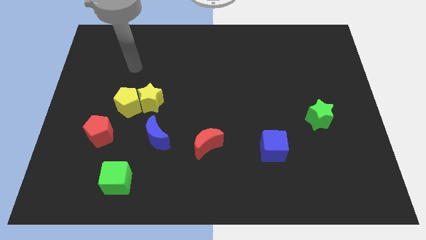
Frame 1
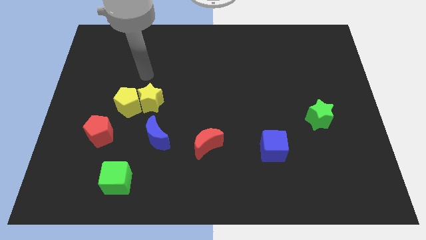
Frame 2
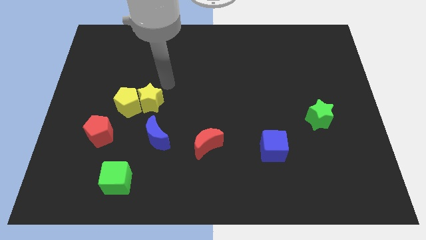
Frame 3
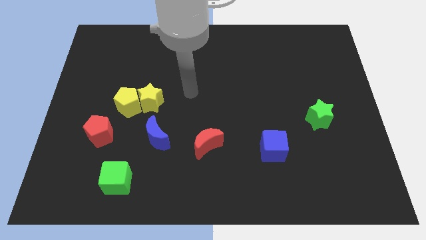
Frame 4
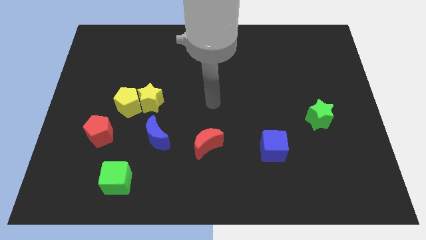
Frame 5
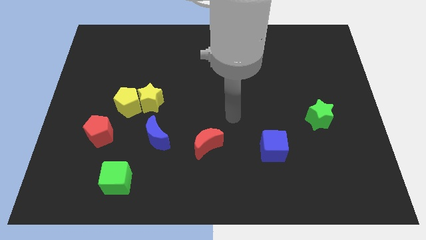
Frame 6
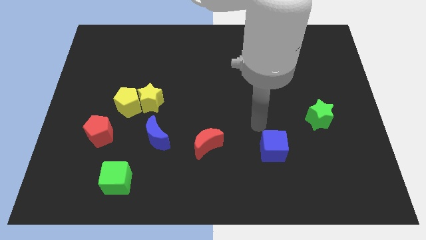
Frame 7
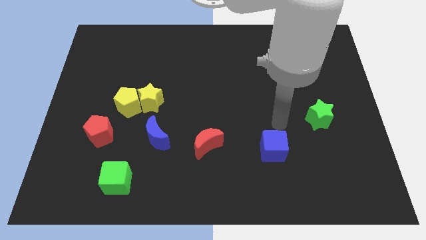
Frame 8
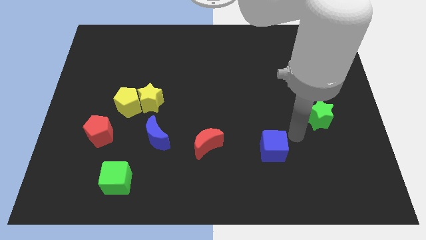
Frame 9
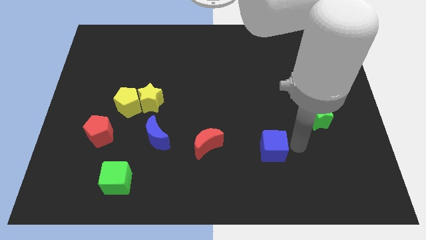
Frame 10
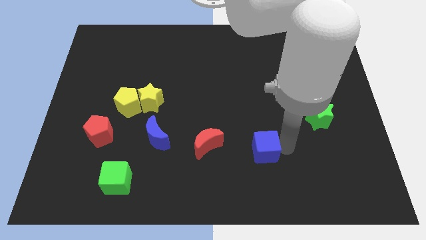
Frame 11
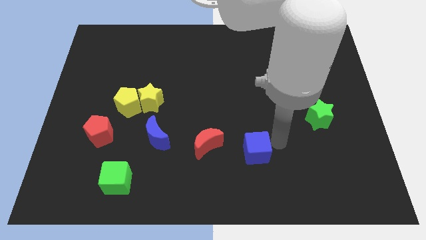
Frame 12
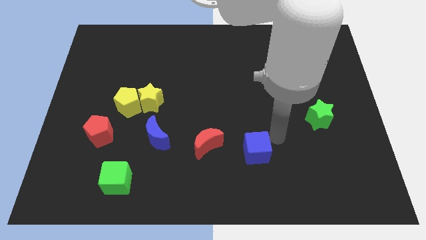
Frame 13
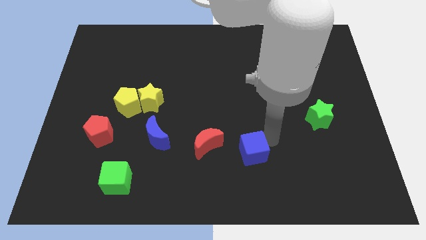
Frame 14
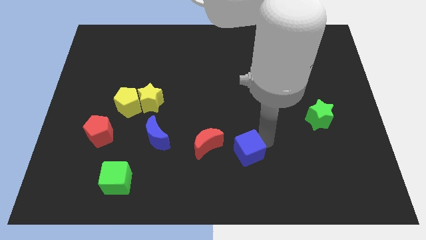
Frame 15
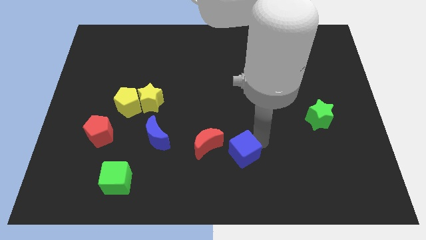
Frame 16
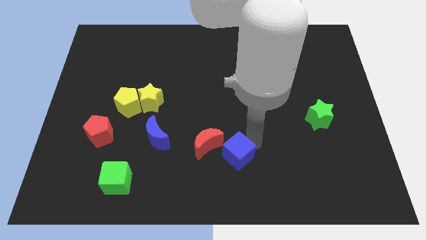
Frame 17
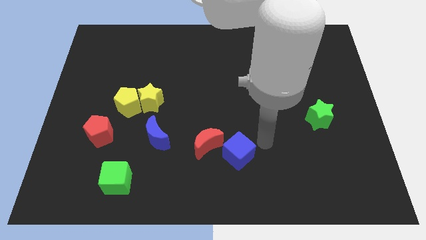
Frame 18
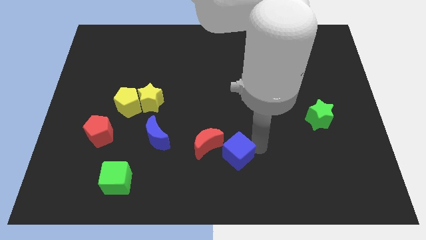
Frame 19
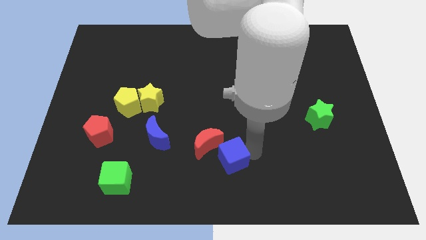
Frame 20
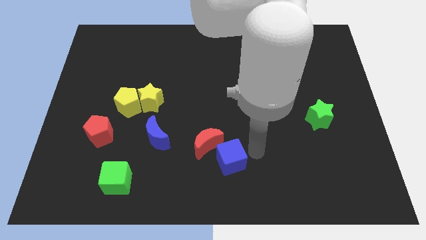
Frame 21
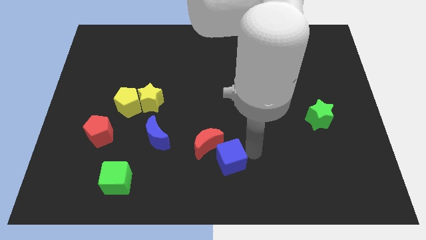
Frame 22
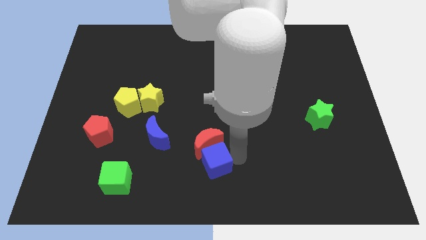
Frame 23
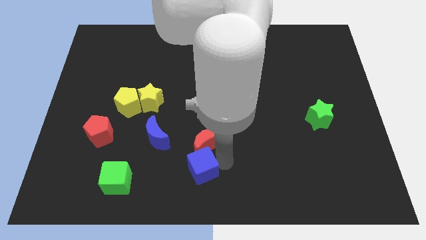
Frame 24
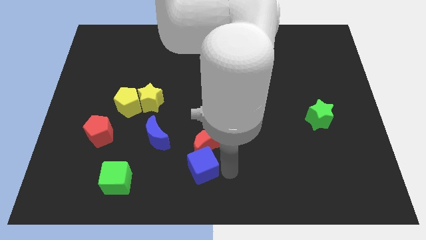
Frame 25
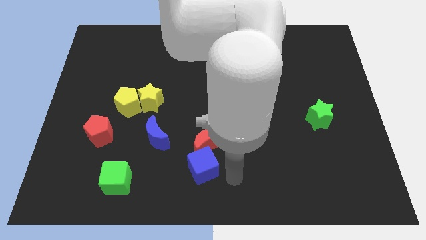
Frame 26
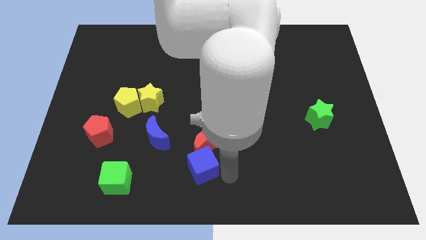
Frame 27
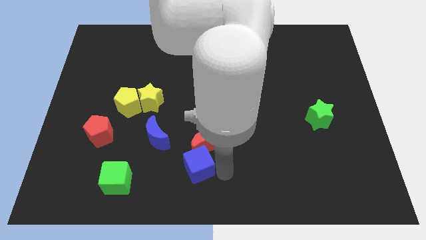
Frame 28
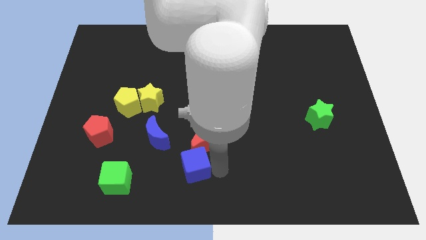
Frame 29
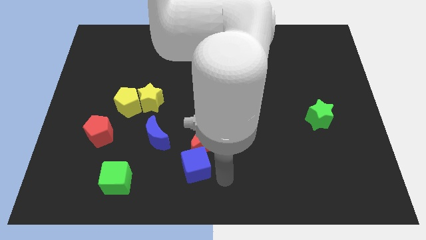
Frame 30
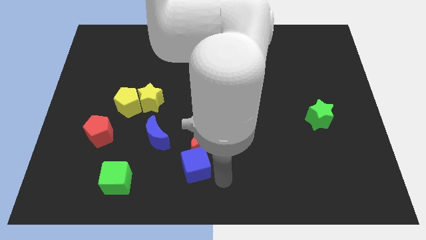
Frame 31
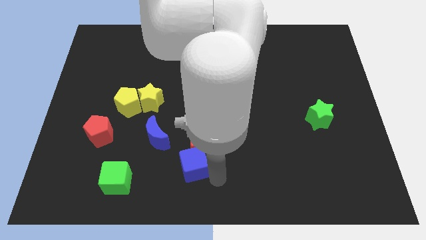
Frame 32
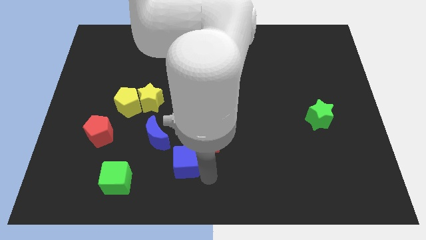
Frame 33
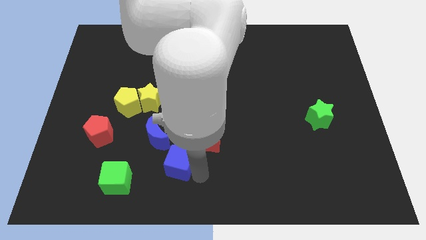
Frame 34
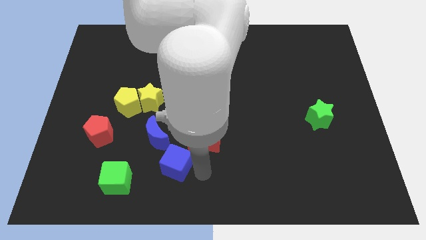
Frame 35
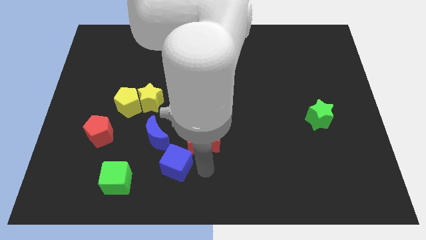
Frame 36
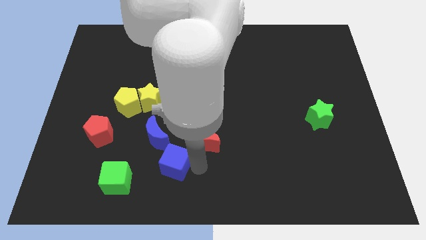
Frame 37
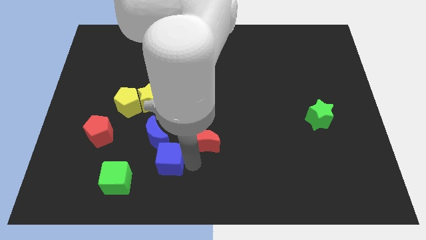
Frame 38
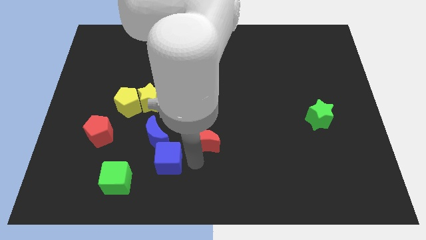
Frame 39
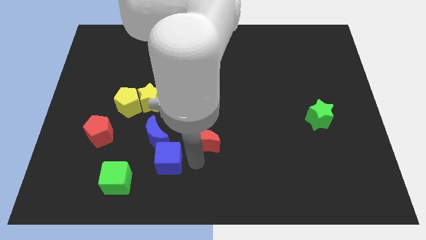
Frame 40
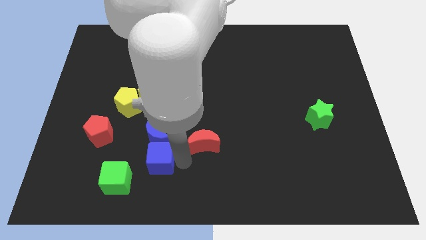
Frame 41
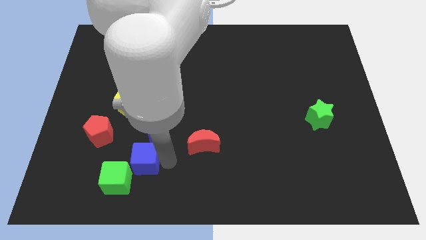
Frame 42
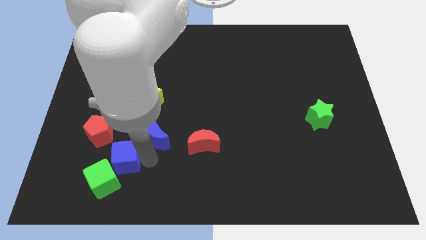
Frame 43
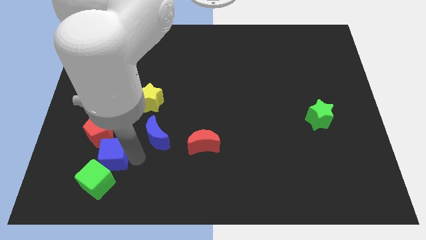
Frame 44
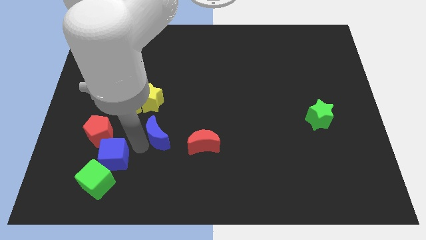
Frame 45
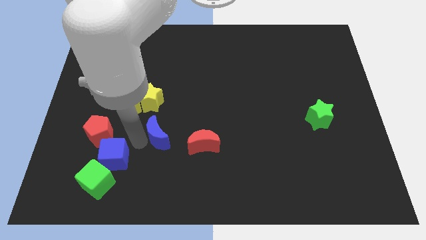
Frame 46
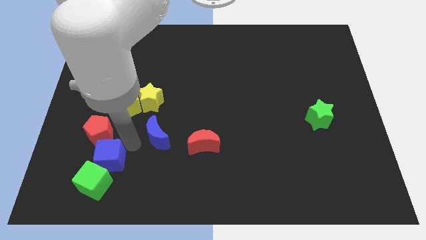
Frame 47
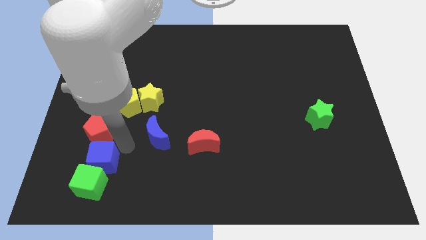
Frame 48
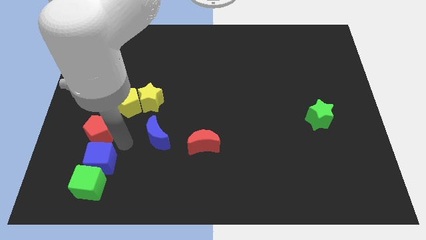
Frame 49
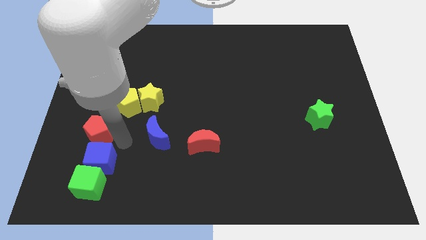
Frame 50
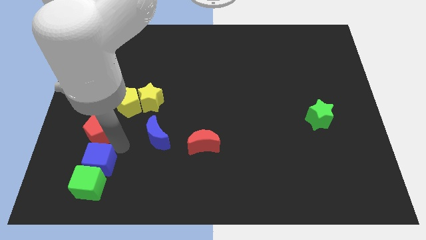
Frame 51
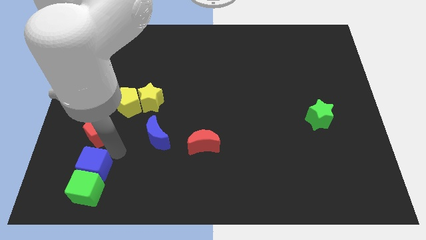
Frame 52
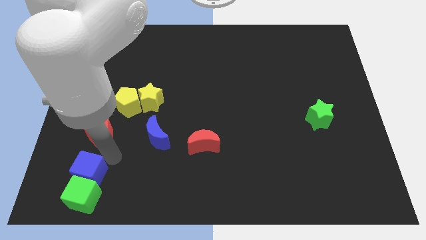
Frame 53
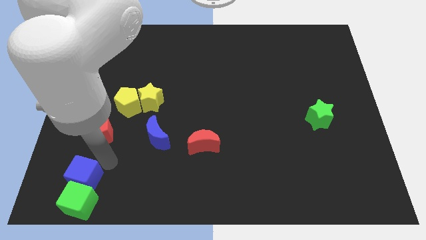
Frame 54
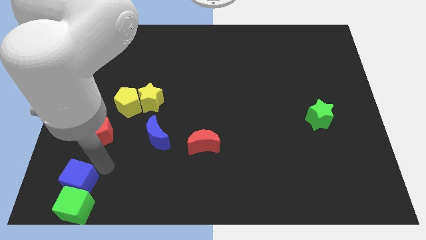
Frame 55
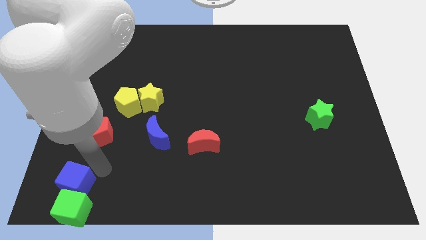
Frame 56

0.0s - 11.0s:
slide the blue cube to the bottom left

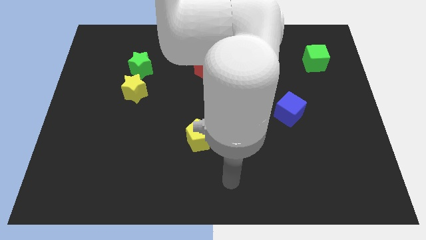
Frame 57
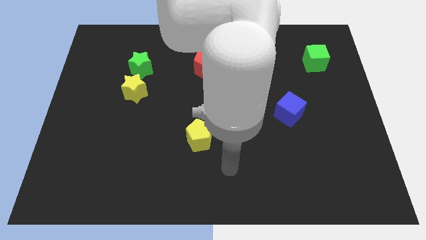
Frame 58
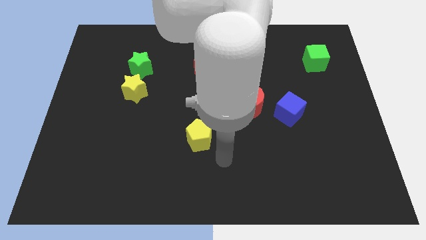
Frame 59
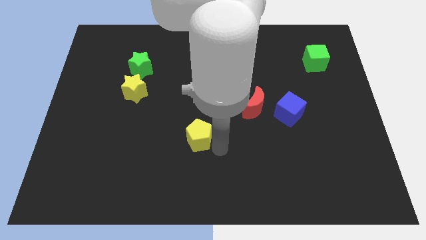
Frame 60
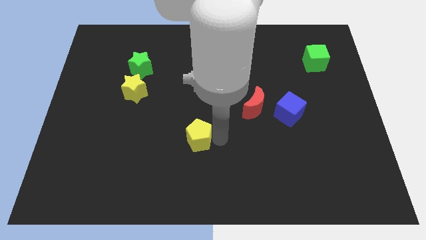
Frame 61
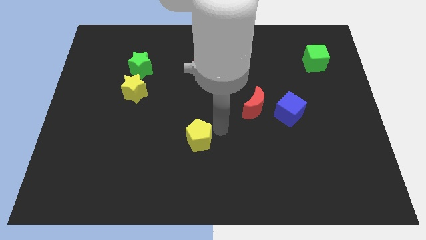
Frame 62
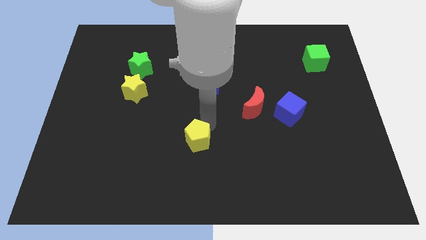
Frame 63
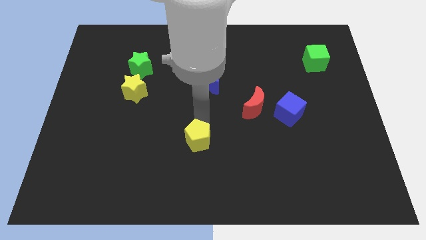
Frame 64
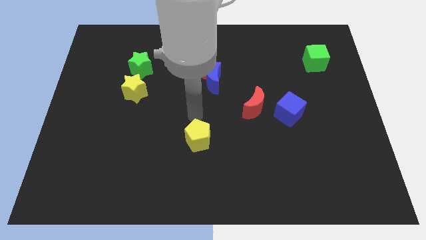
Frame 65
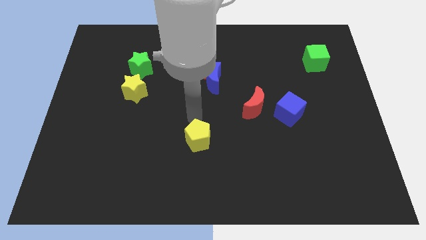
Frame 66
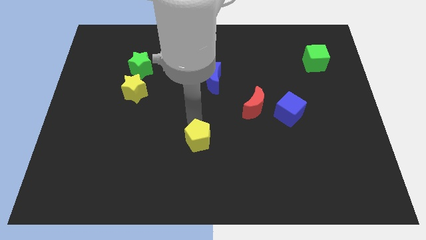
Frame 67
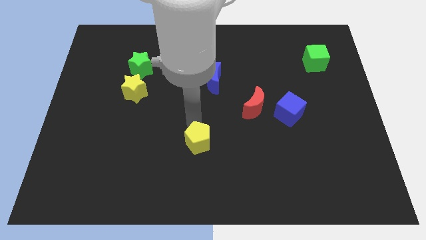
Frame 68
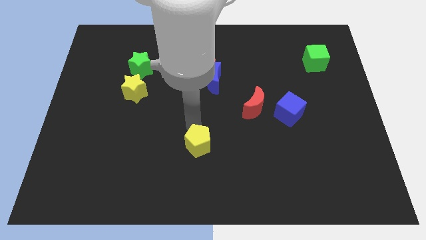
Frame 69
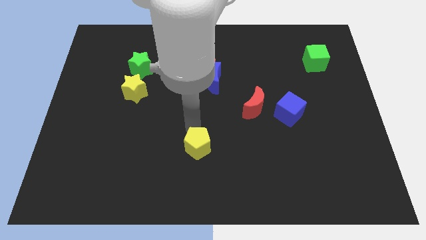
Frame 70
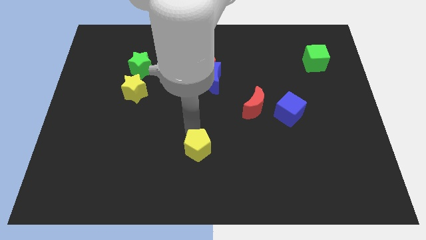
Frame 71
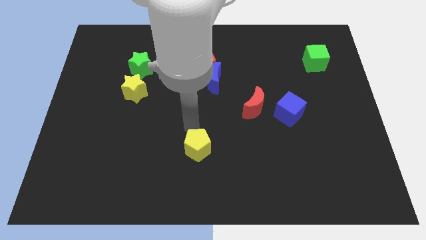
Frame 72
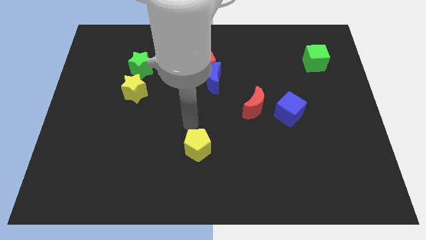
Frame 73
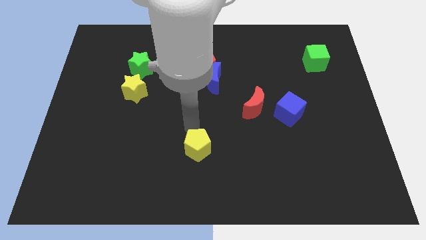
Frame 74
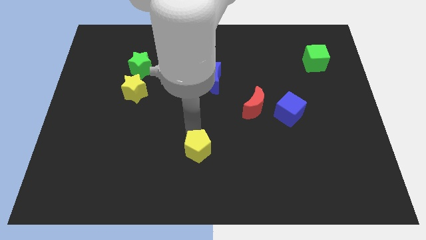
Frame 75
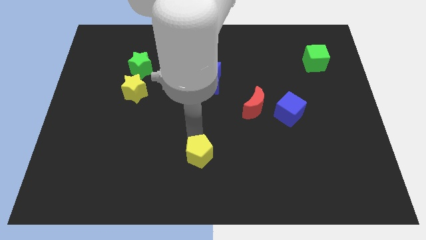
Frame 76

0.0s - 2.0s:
put the yellow pentagon to the bottom
